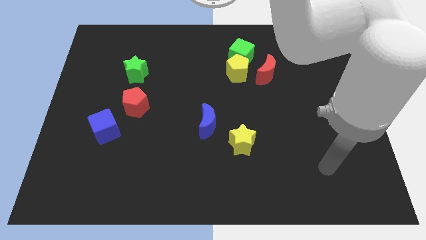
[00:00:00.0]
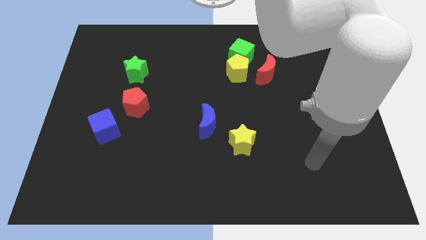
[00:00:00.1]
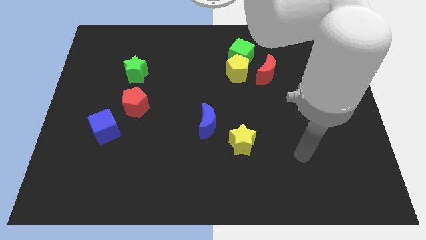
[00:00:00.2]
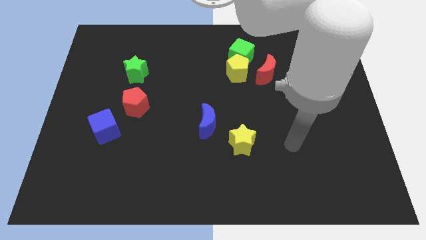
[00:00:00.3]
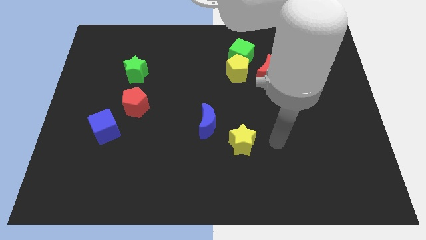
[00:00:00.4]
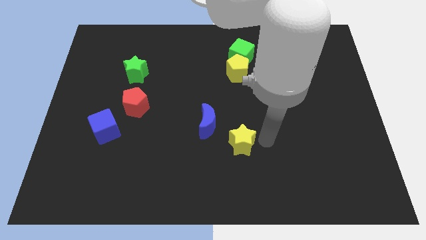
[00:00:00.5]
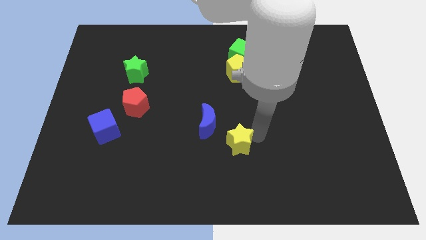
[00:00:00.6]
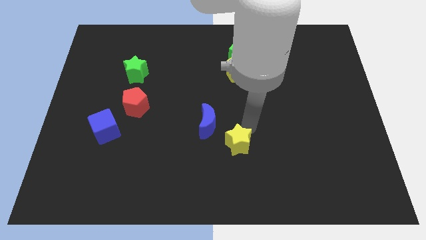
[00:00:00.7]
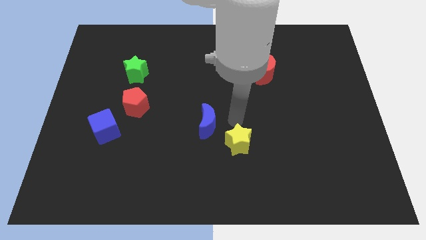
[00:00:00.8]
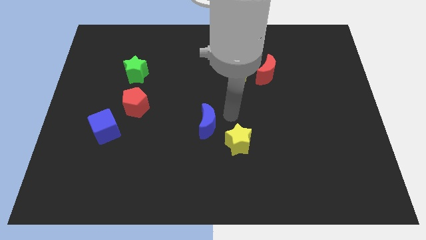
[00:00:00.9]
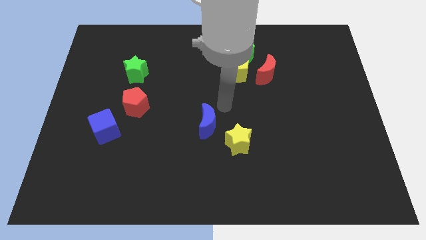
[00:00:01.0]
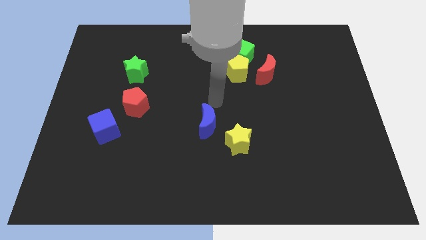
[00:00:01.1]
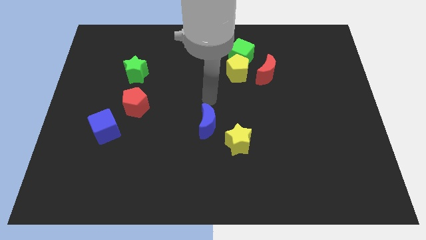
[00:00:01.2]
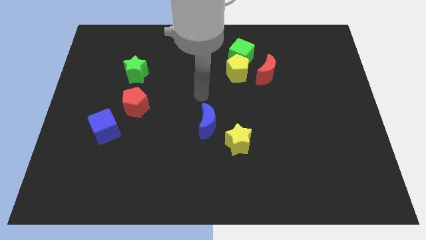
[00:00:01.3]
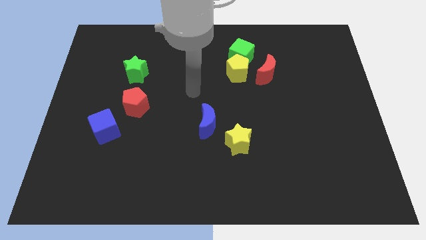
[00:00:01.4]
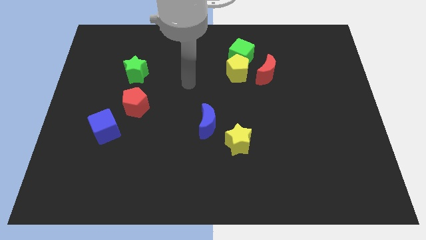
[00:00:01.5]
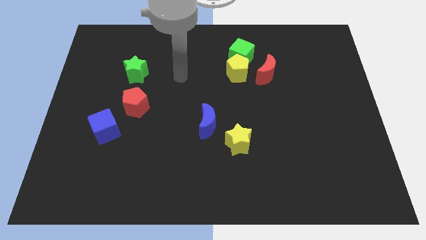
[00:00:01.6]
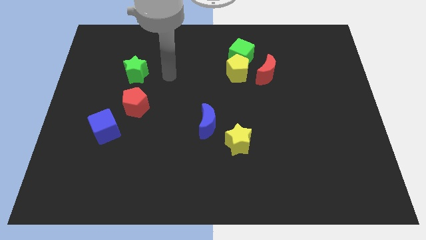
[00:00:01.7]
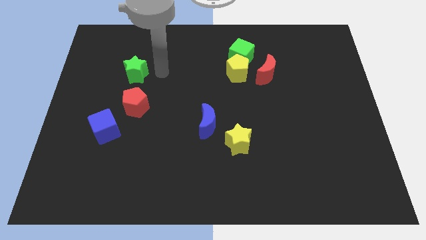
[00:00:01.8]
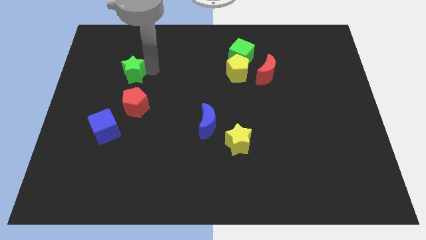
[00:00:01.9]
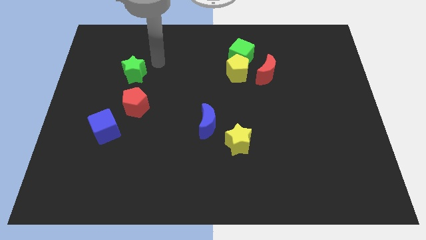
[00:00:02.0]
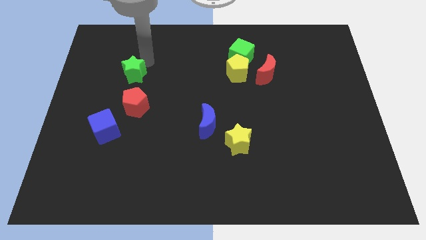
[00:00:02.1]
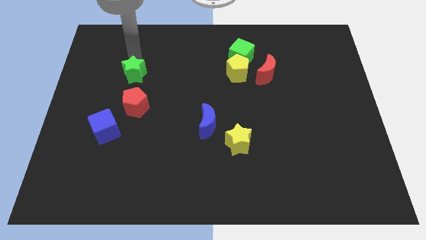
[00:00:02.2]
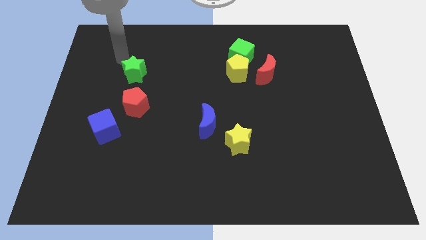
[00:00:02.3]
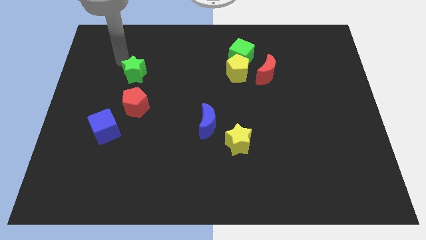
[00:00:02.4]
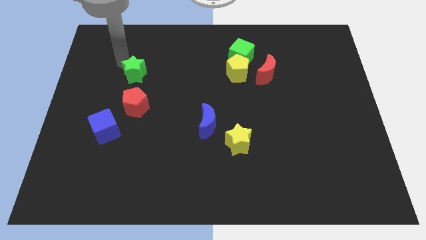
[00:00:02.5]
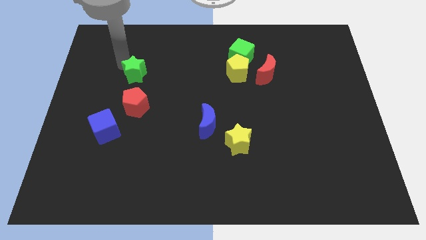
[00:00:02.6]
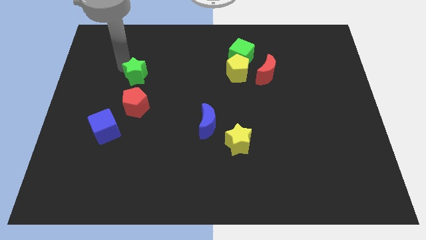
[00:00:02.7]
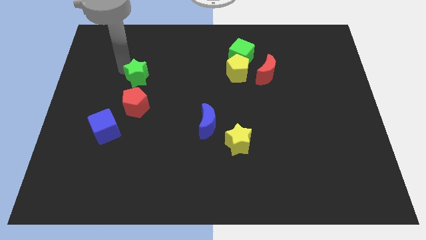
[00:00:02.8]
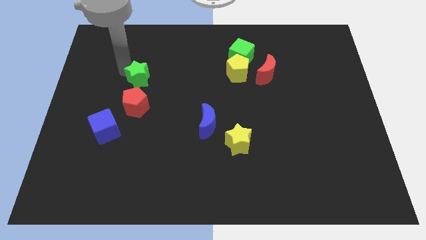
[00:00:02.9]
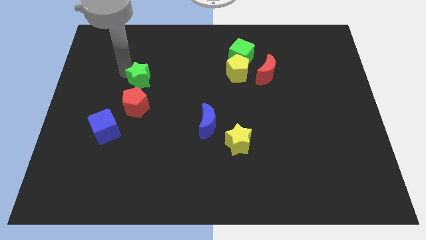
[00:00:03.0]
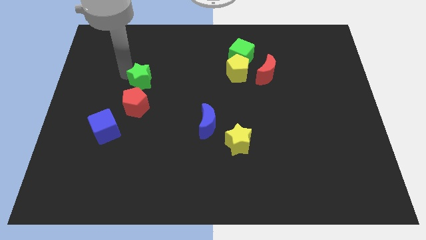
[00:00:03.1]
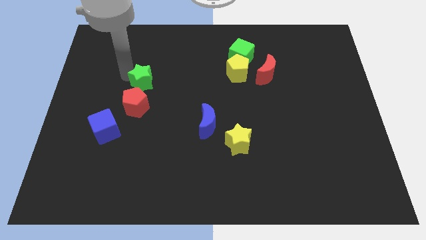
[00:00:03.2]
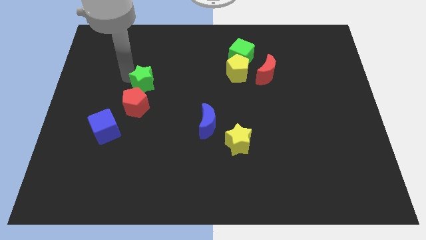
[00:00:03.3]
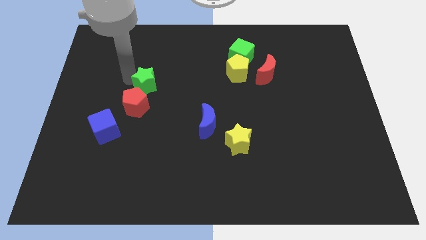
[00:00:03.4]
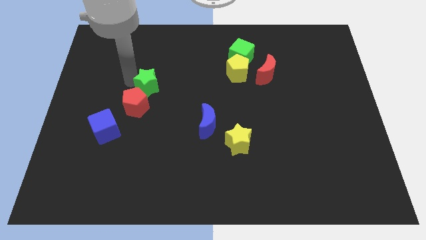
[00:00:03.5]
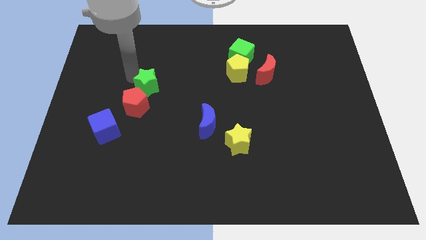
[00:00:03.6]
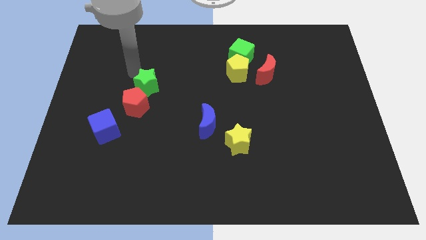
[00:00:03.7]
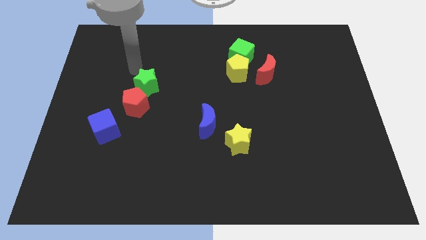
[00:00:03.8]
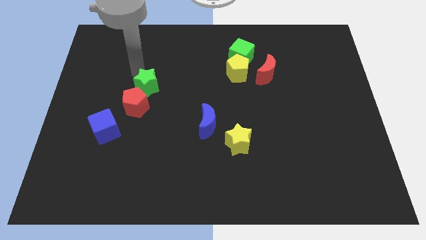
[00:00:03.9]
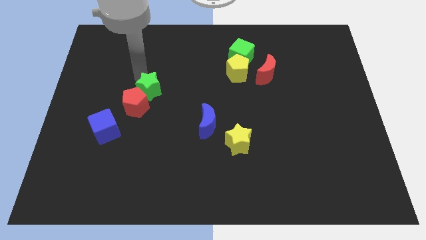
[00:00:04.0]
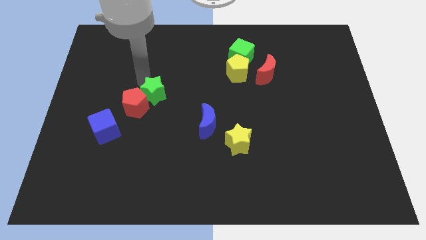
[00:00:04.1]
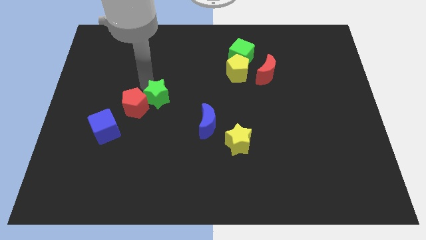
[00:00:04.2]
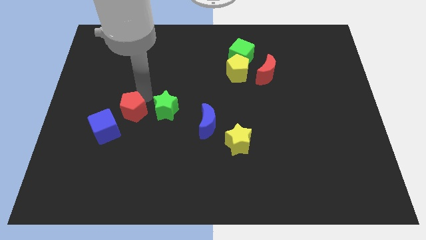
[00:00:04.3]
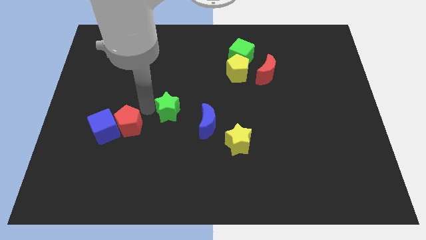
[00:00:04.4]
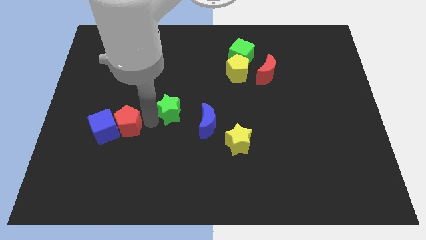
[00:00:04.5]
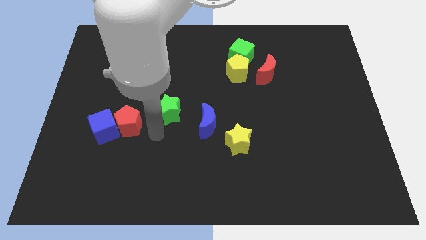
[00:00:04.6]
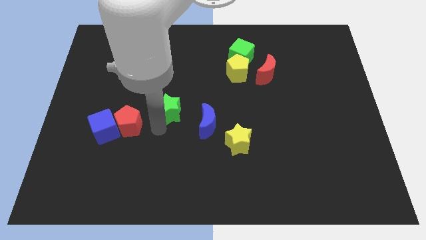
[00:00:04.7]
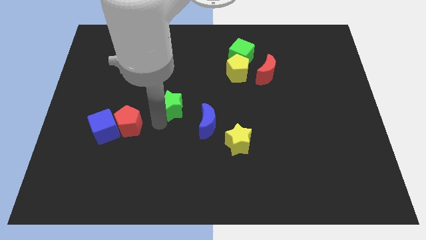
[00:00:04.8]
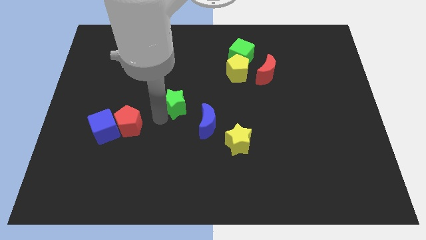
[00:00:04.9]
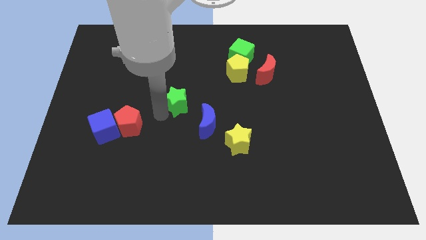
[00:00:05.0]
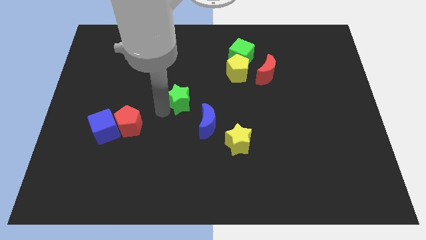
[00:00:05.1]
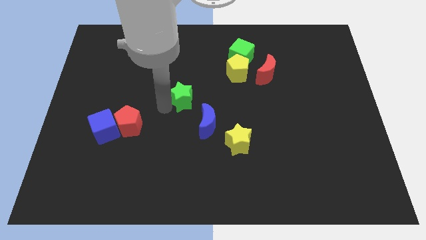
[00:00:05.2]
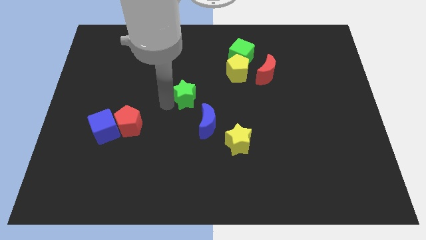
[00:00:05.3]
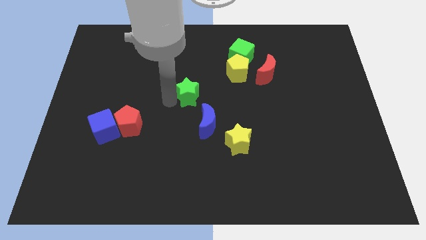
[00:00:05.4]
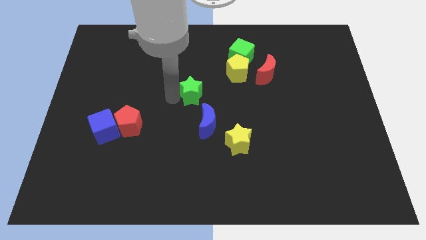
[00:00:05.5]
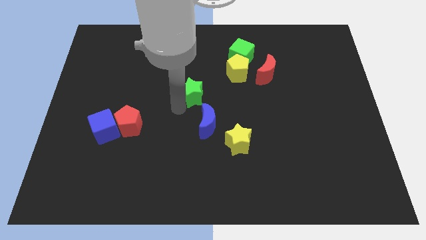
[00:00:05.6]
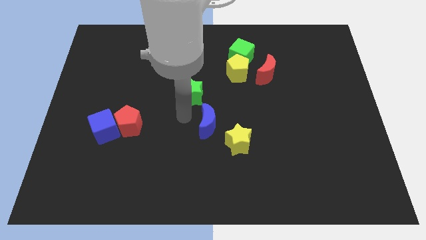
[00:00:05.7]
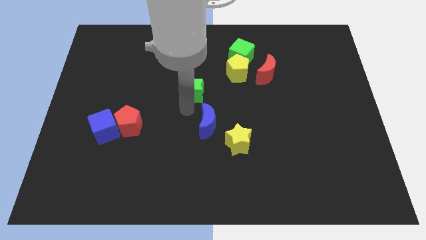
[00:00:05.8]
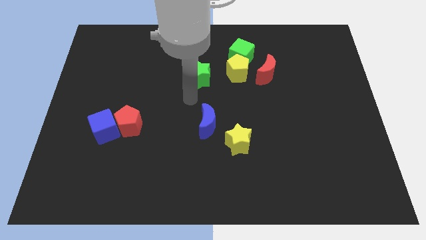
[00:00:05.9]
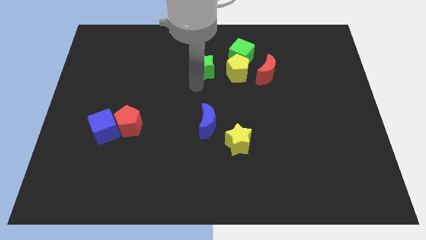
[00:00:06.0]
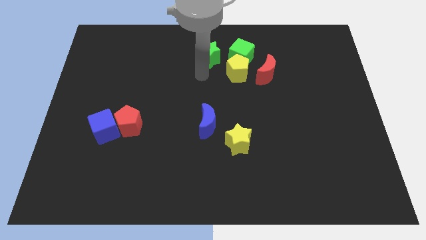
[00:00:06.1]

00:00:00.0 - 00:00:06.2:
move the green star to the towards your base
